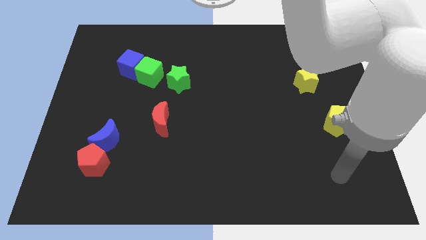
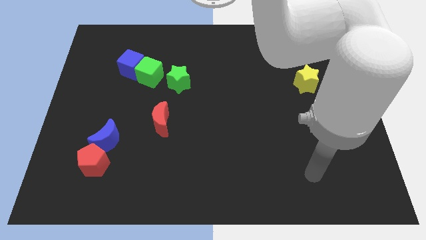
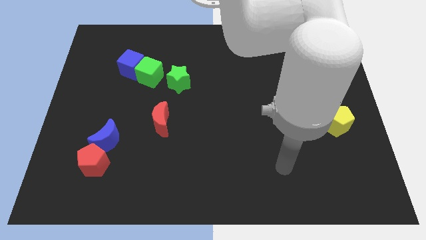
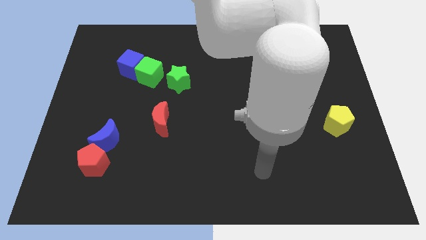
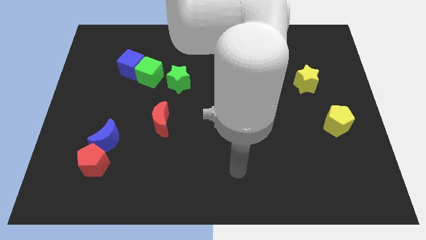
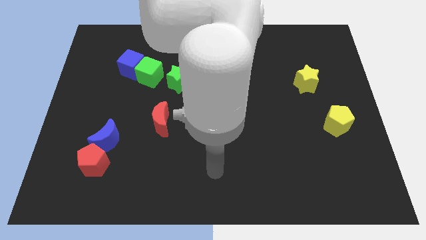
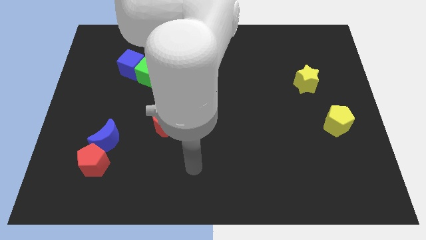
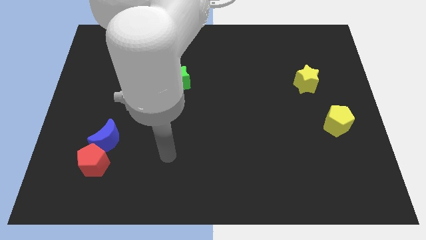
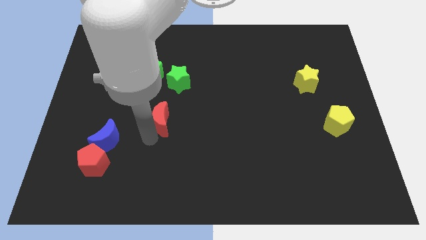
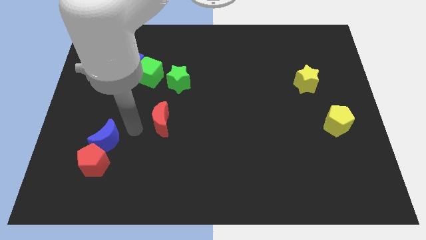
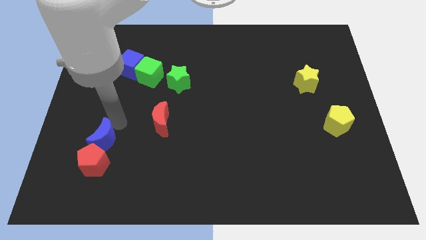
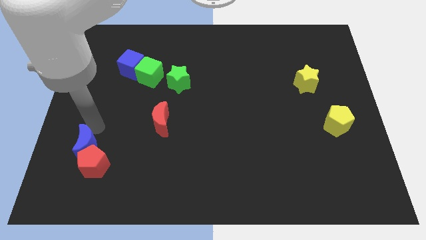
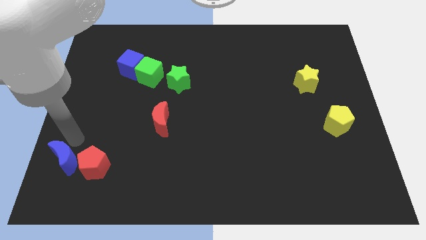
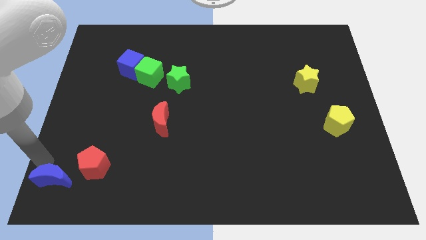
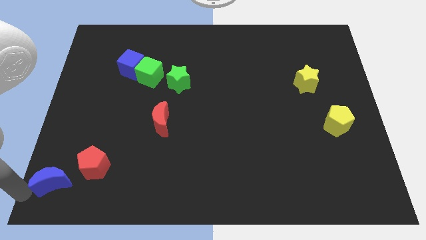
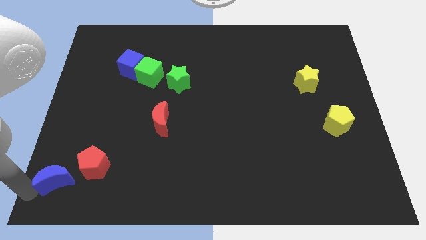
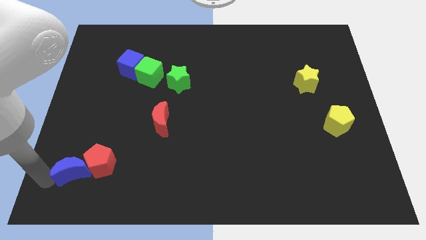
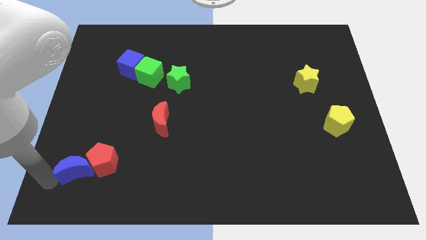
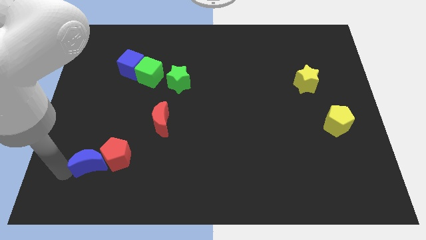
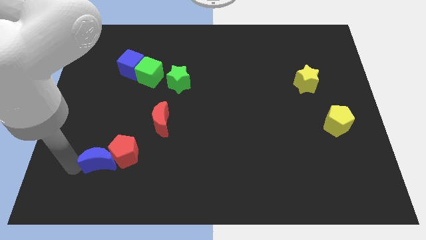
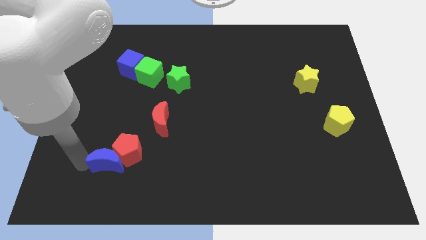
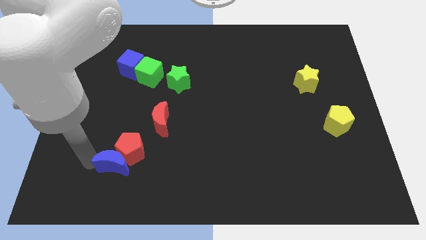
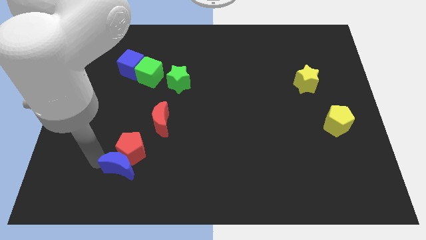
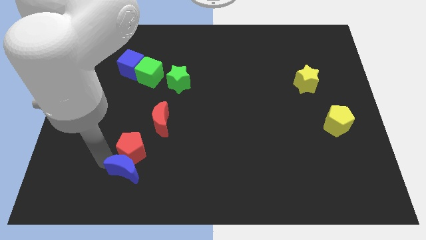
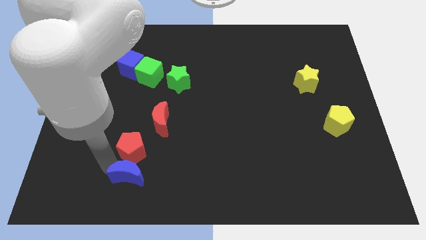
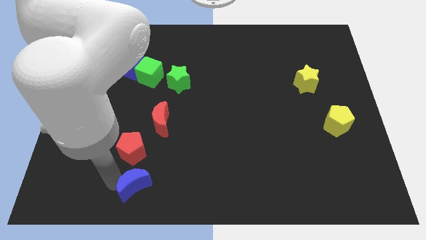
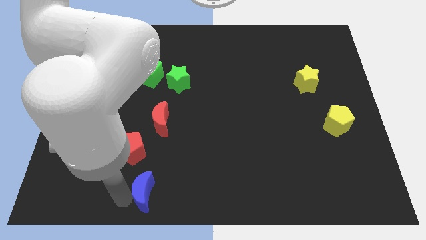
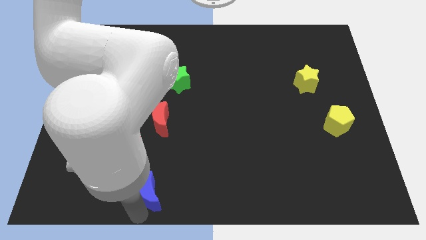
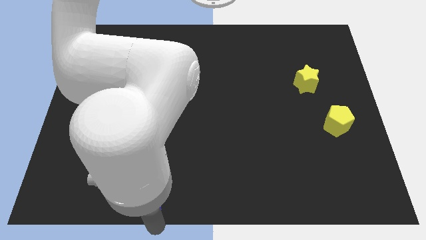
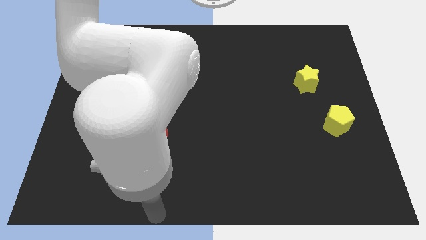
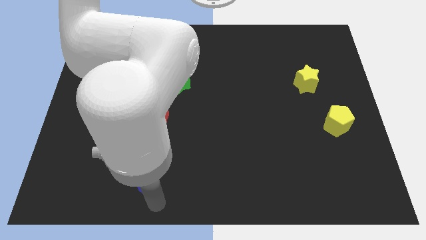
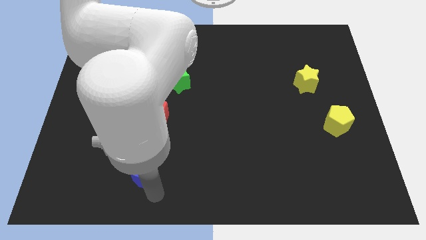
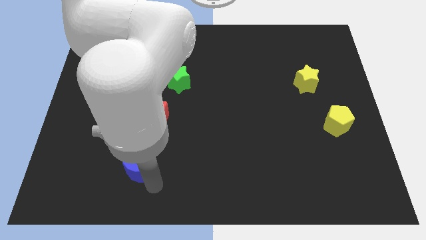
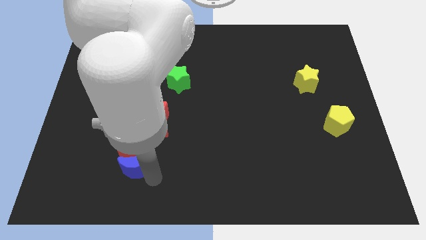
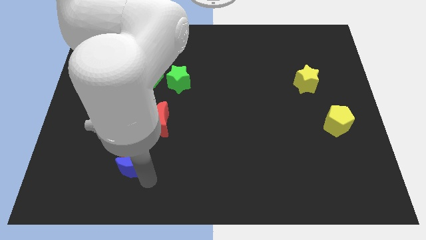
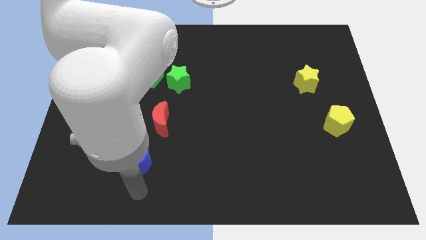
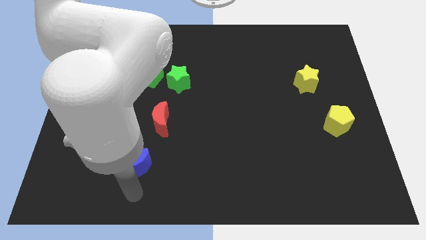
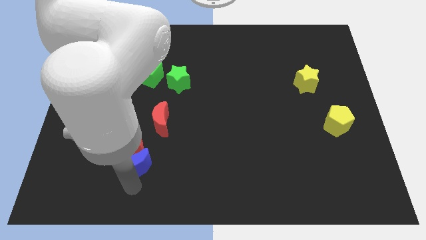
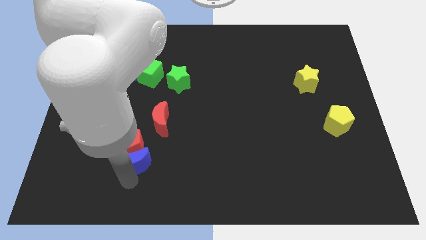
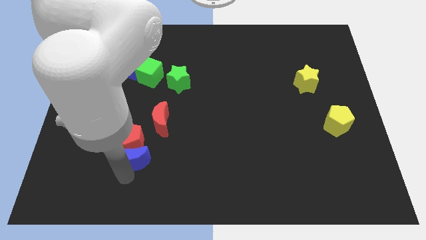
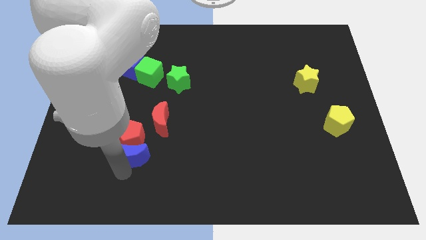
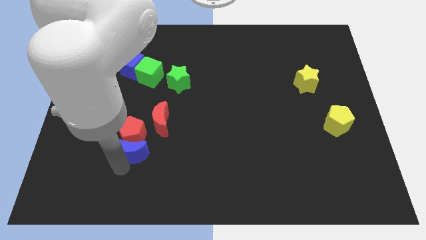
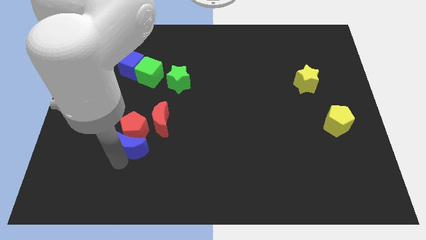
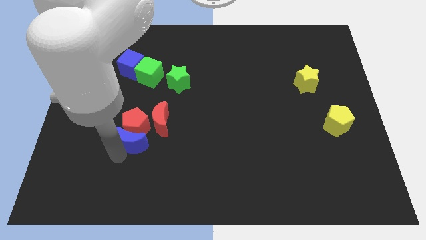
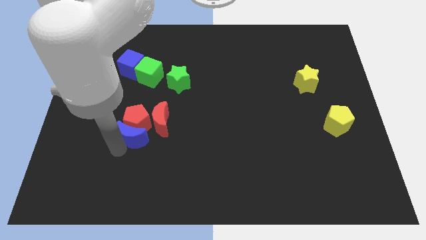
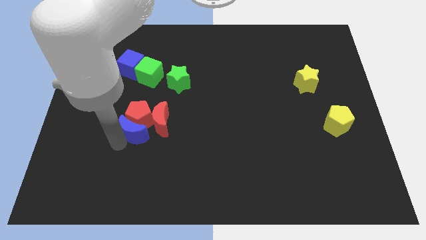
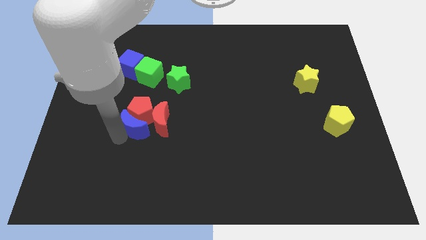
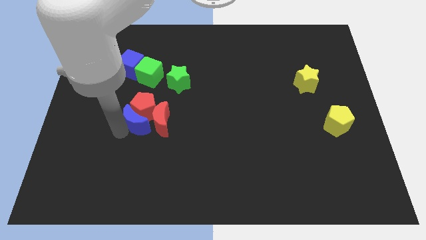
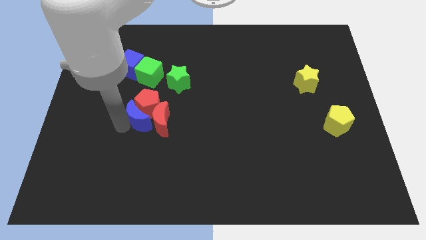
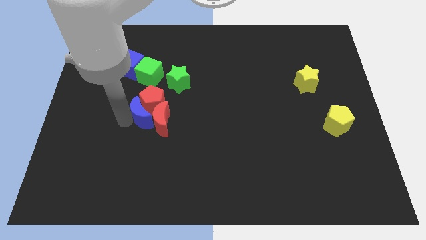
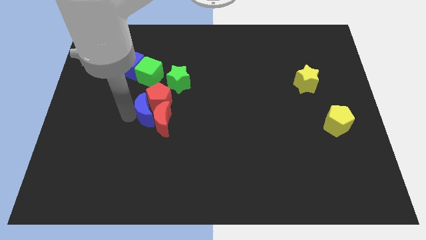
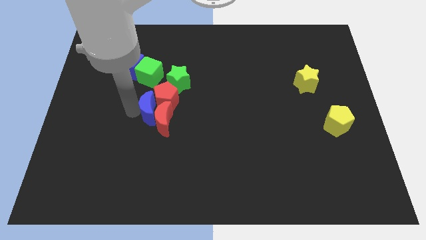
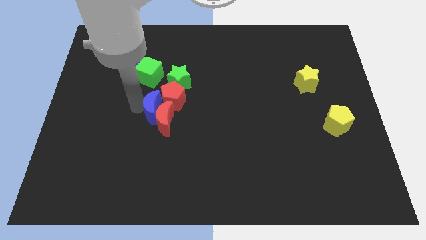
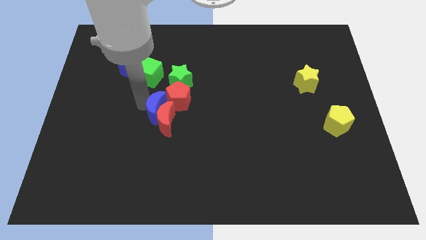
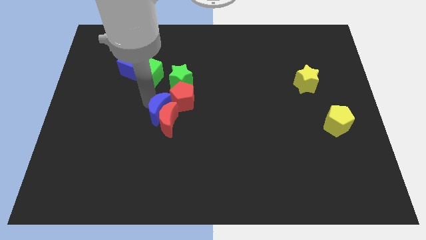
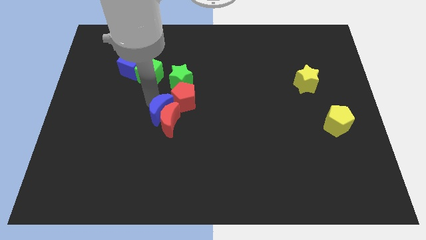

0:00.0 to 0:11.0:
move the blue moon to the center
